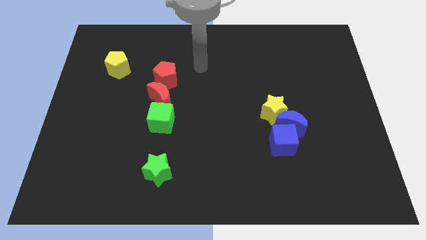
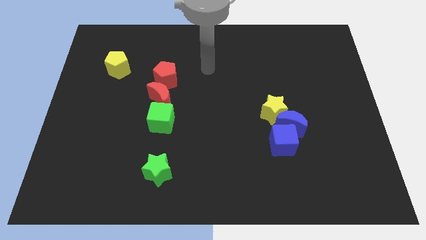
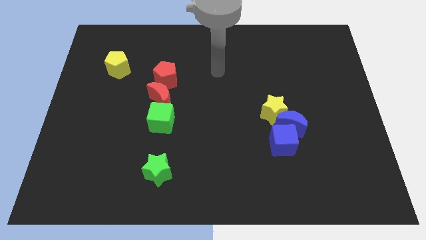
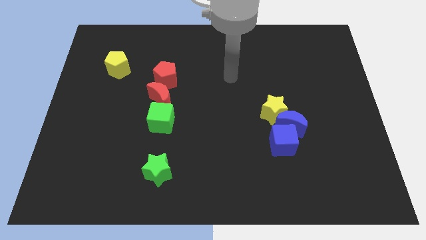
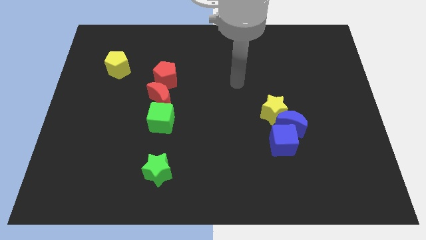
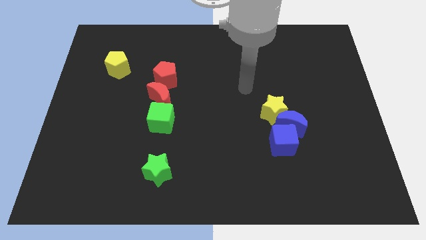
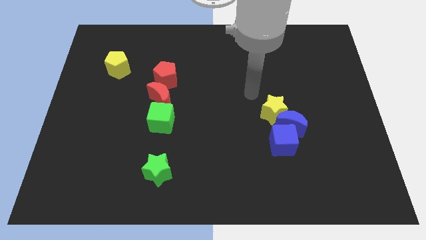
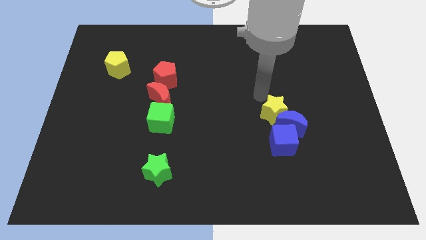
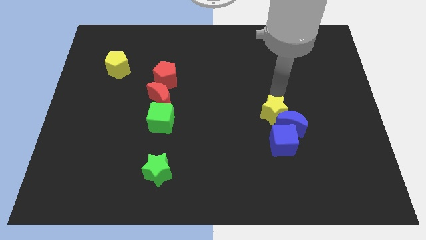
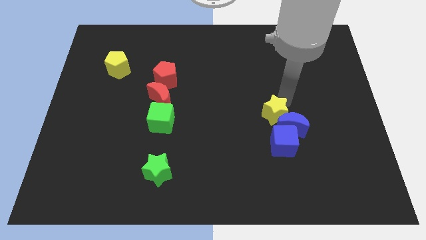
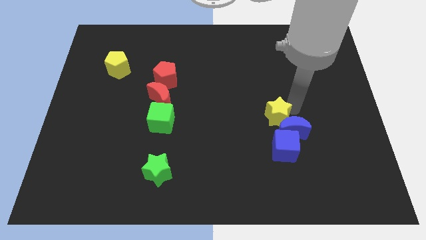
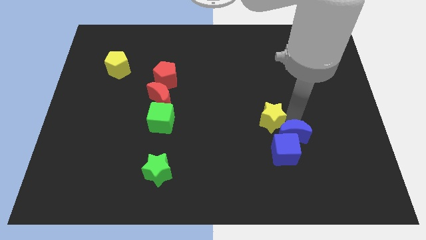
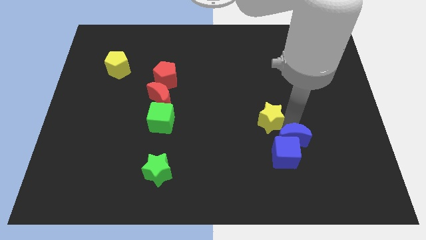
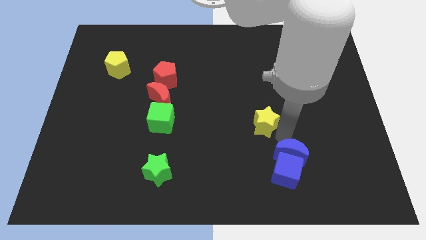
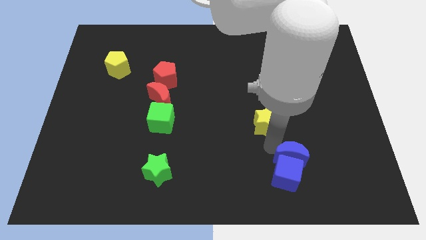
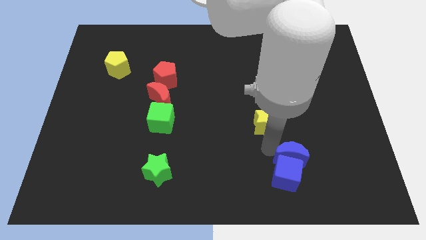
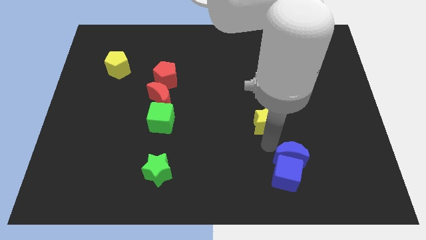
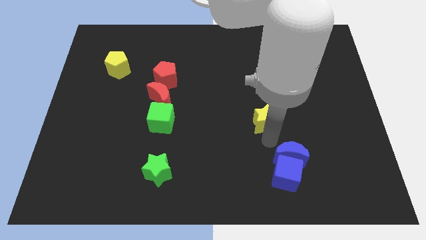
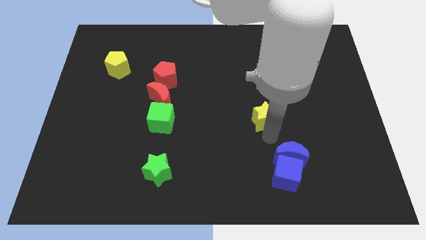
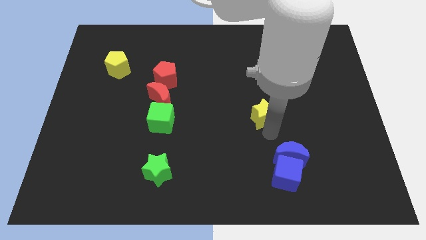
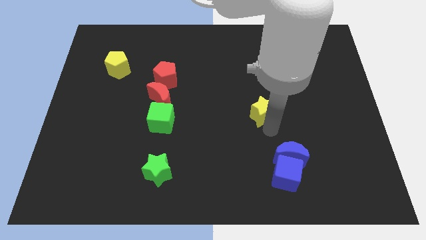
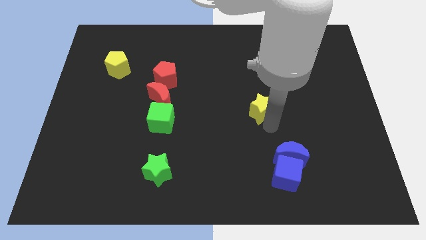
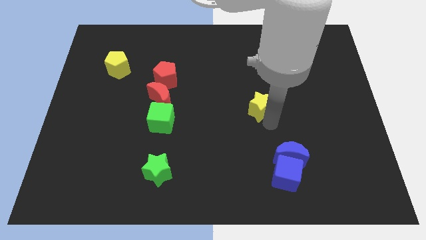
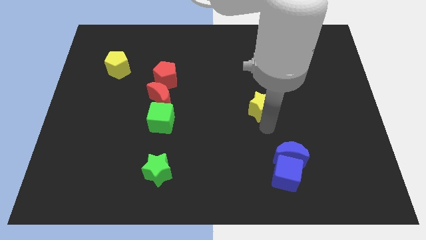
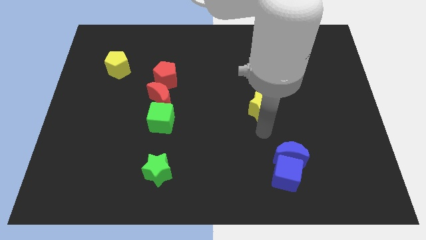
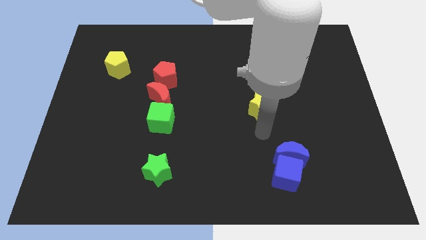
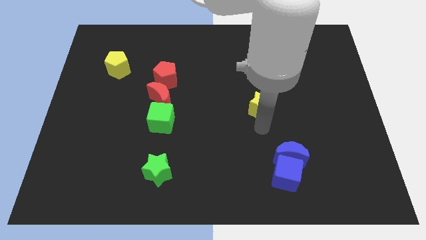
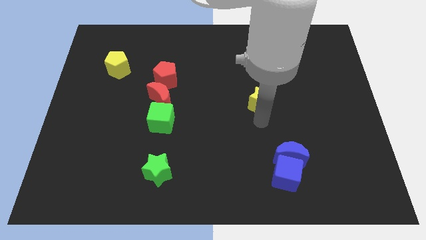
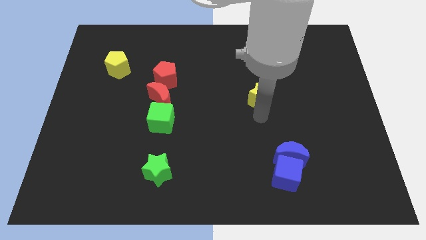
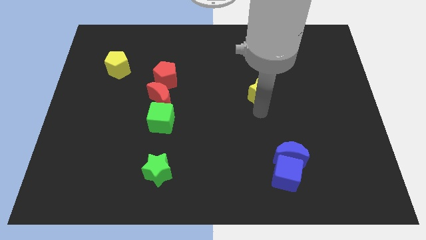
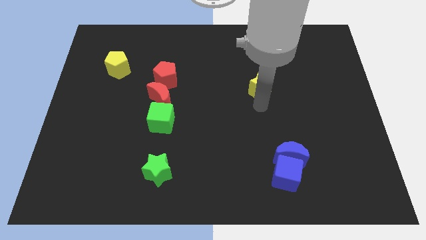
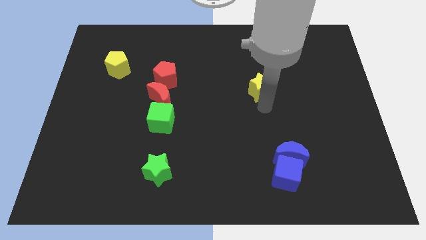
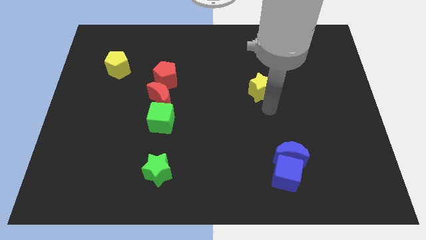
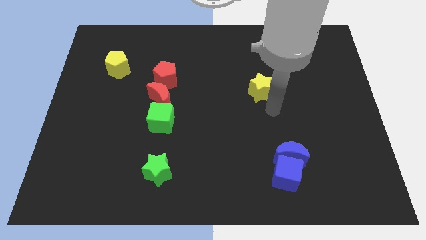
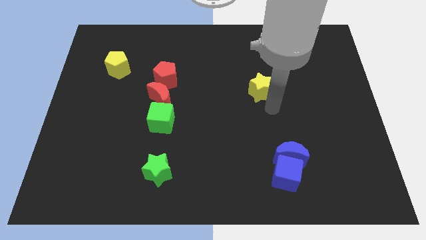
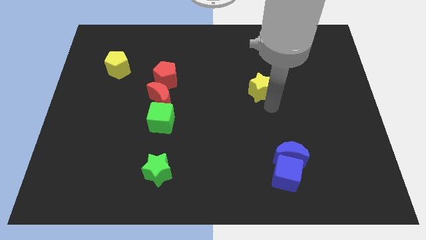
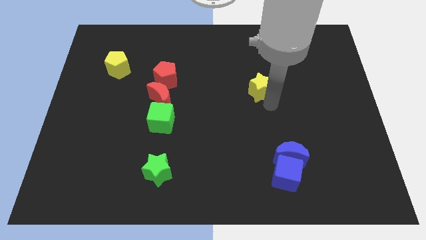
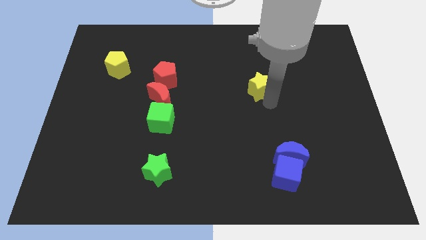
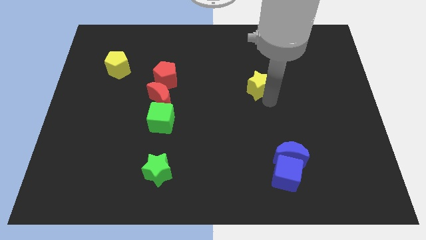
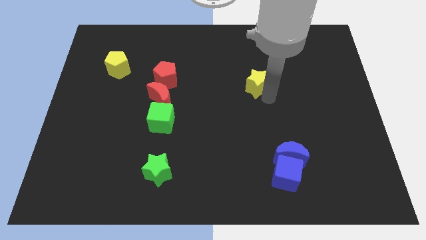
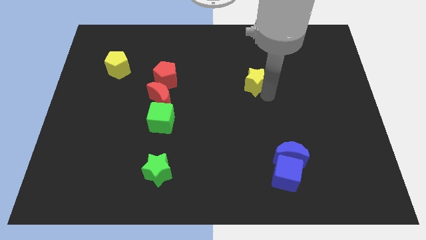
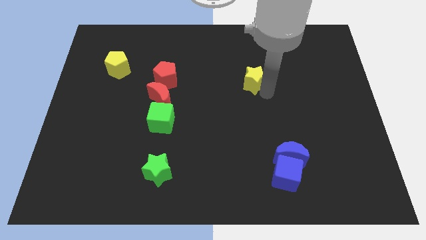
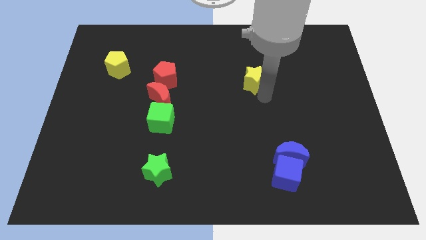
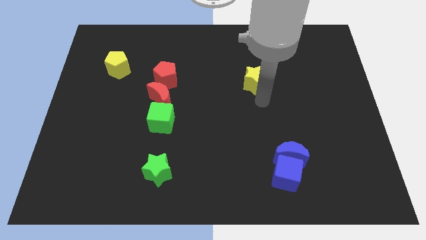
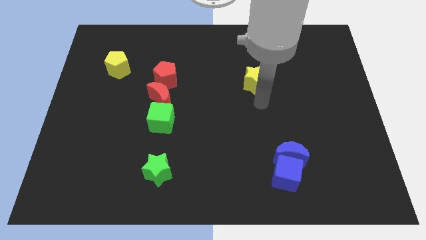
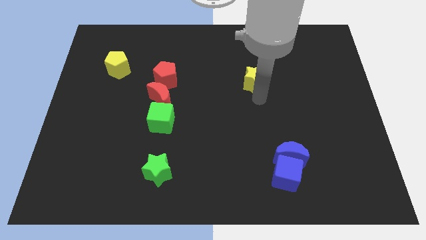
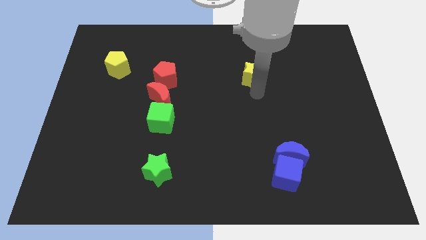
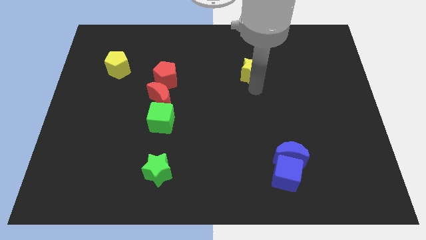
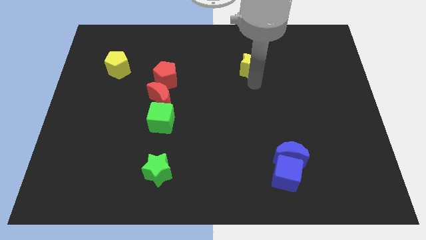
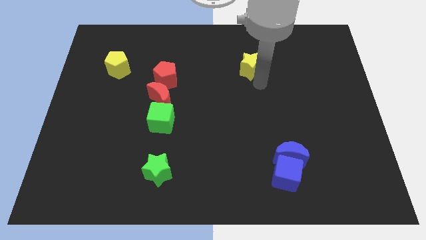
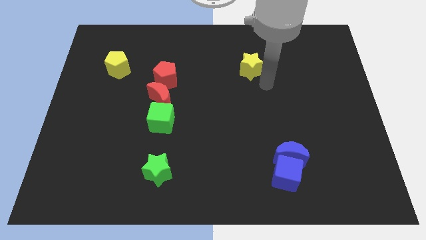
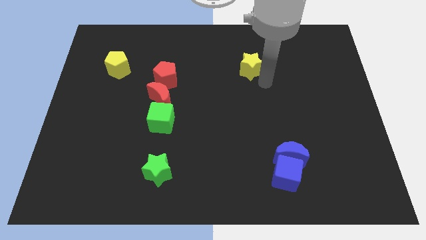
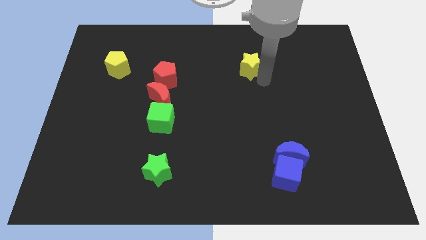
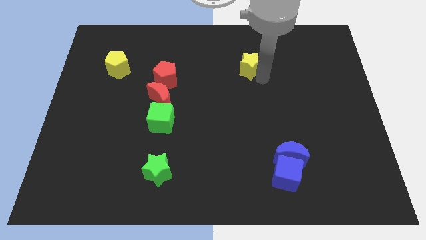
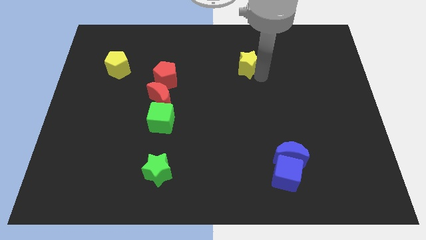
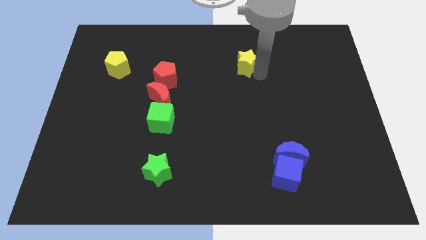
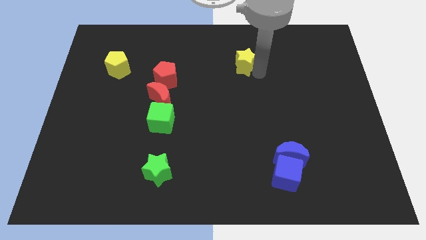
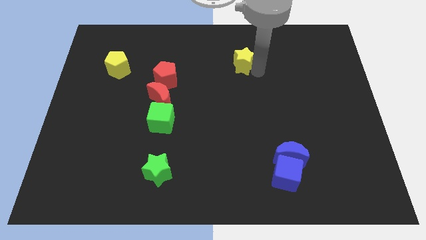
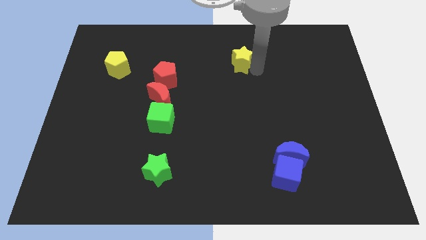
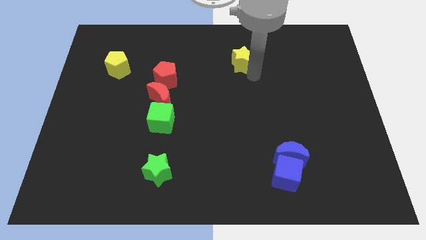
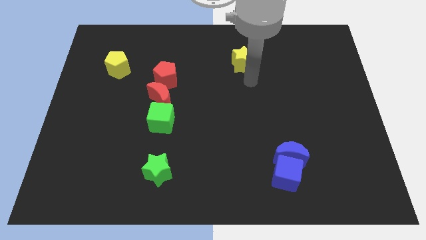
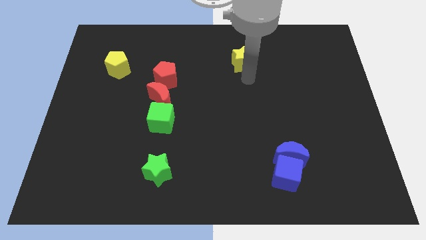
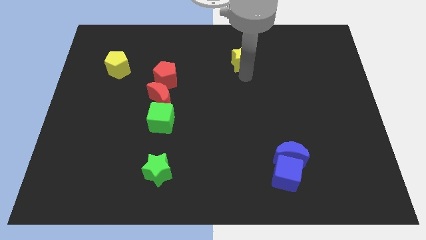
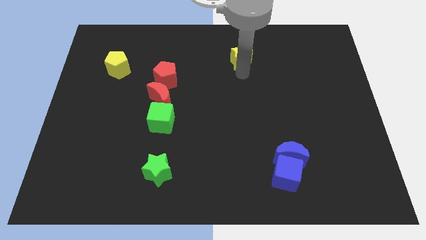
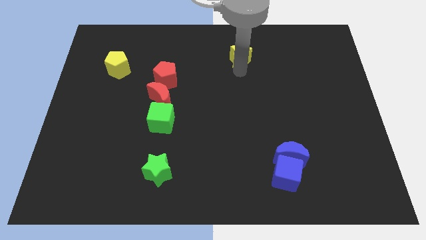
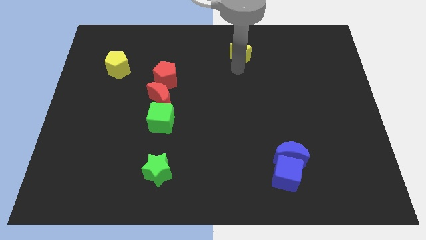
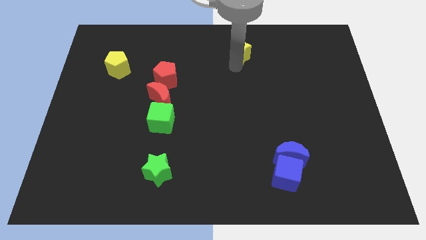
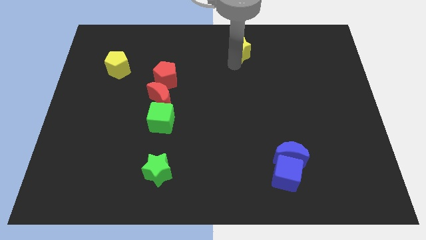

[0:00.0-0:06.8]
put the yellow star to the top
